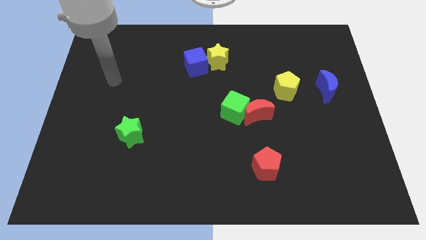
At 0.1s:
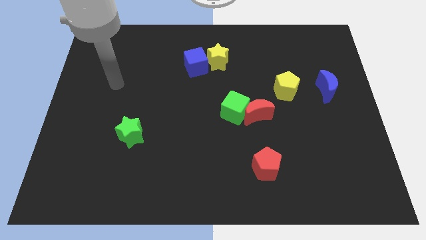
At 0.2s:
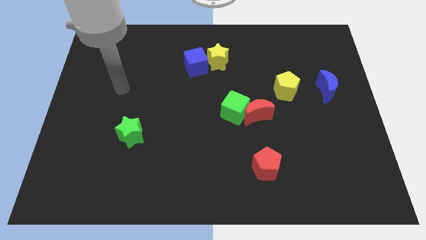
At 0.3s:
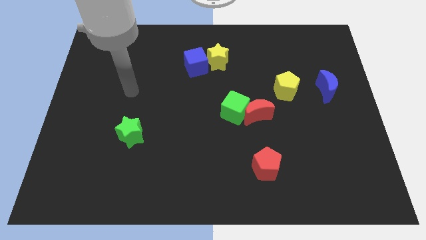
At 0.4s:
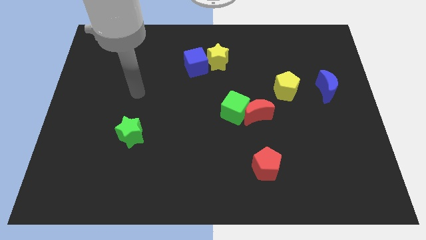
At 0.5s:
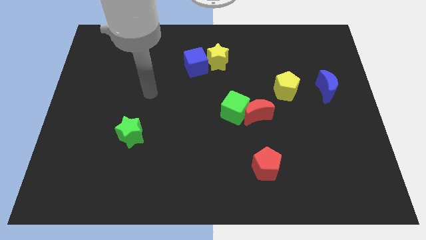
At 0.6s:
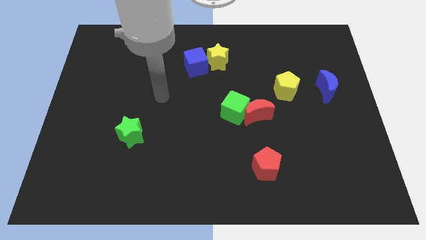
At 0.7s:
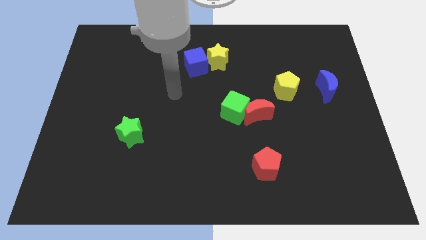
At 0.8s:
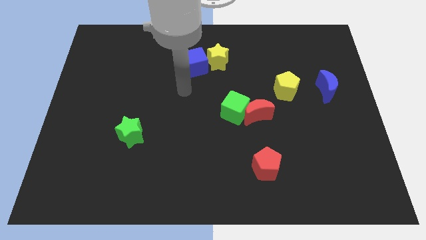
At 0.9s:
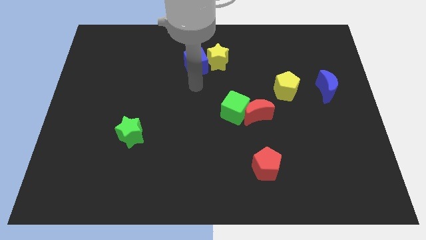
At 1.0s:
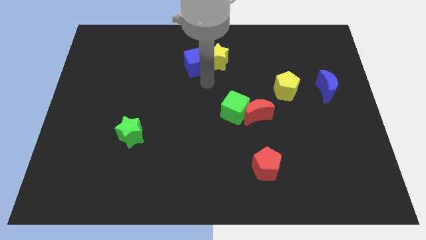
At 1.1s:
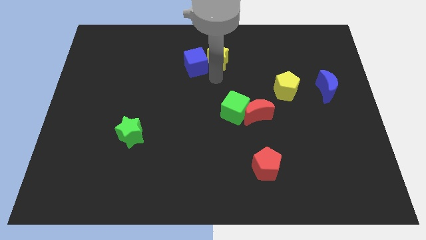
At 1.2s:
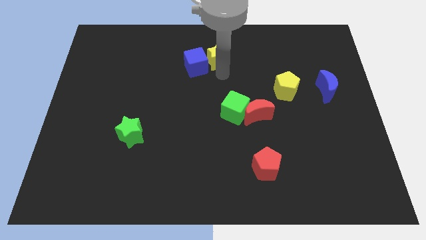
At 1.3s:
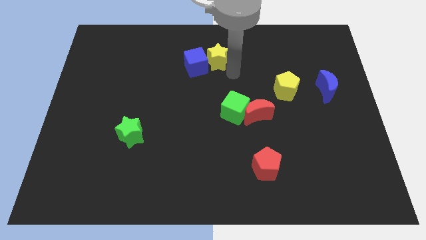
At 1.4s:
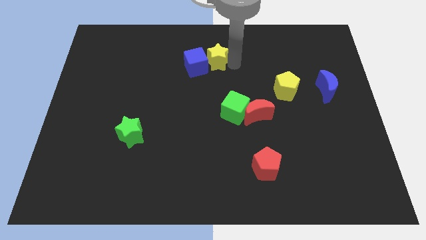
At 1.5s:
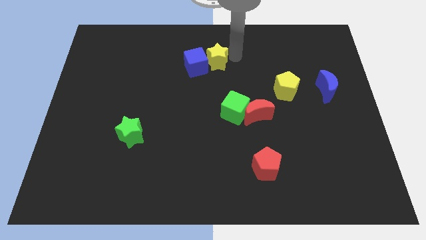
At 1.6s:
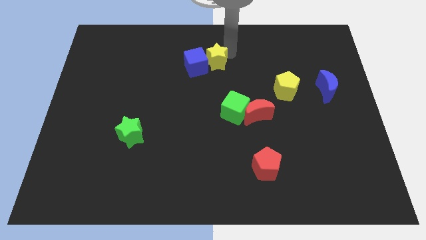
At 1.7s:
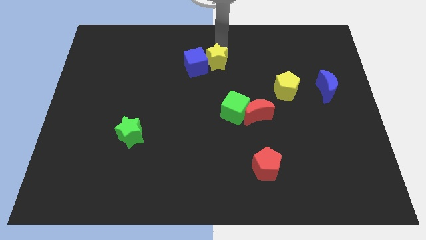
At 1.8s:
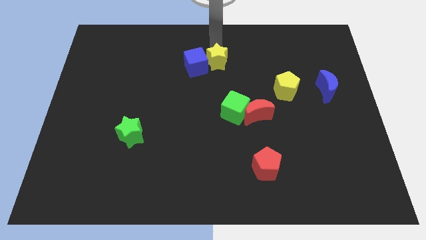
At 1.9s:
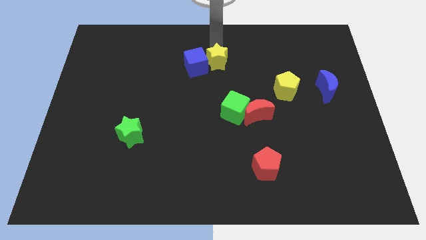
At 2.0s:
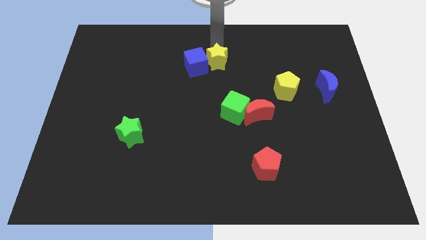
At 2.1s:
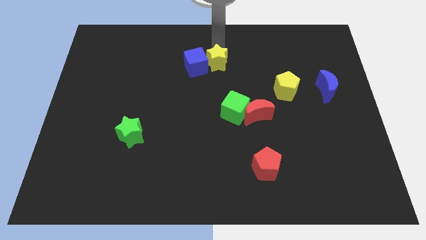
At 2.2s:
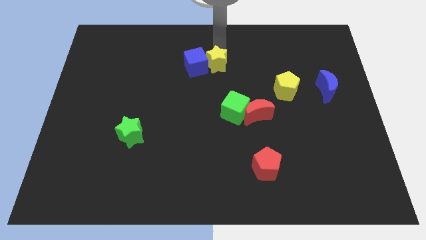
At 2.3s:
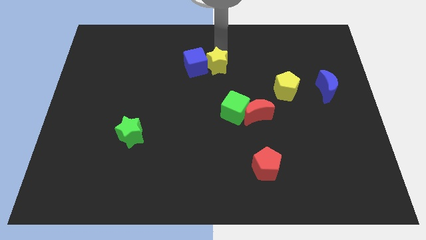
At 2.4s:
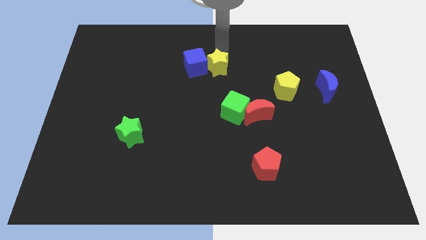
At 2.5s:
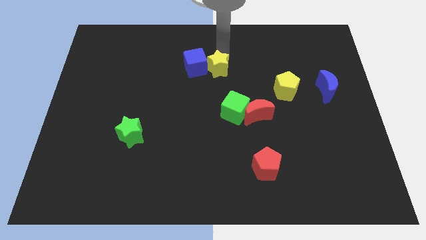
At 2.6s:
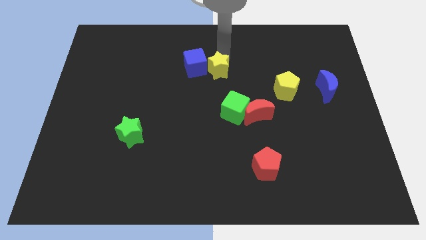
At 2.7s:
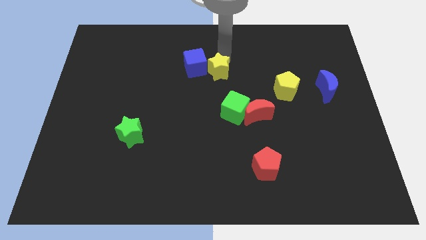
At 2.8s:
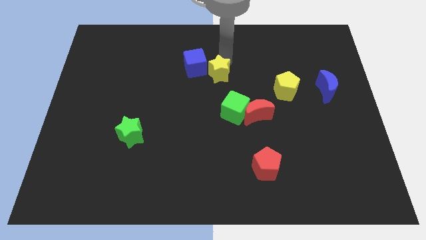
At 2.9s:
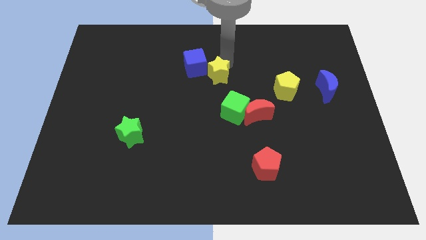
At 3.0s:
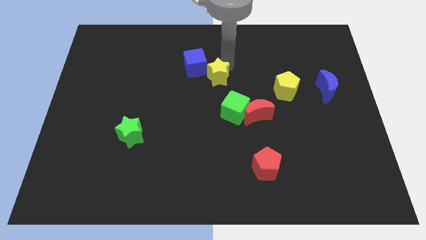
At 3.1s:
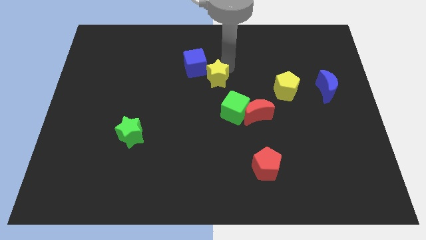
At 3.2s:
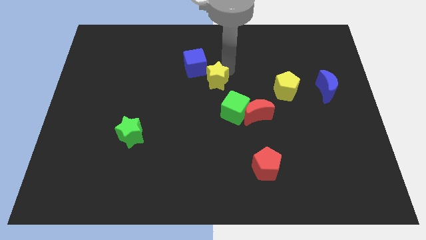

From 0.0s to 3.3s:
slide the yellow star down somewhat

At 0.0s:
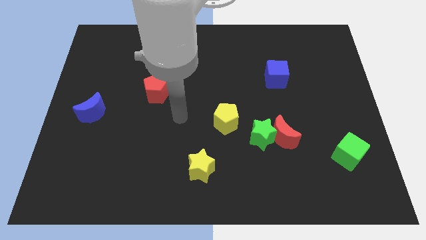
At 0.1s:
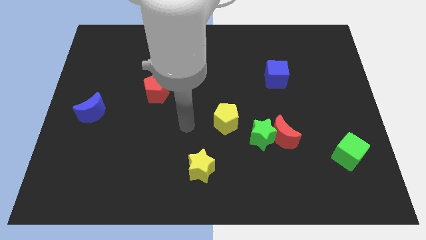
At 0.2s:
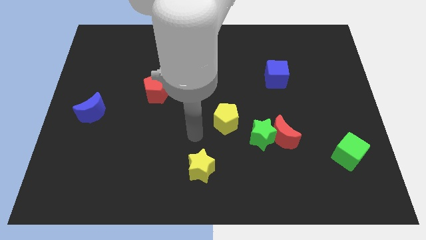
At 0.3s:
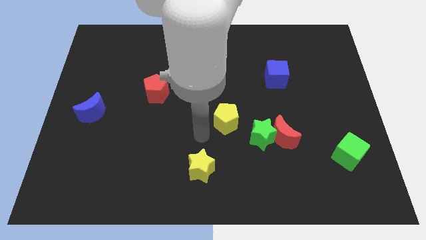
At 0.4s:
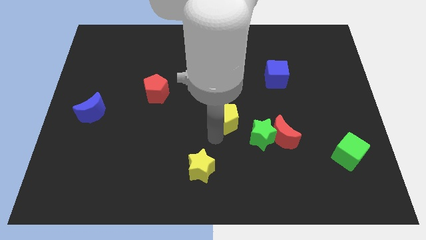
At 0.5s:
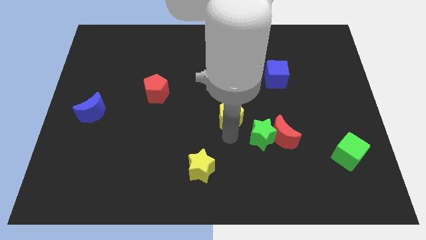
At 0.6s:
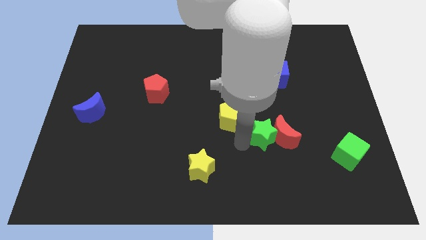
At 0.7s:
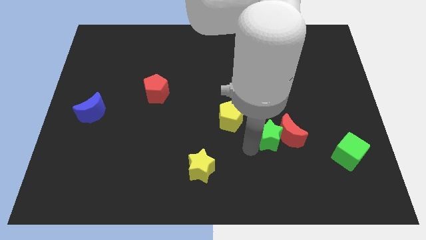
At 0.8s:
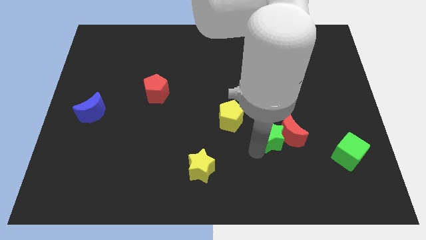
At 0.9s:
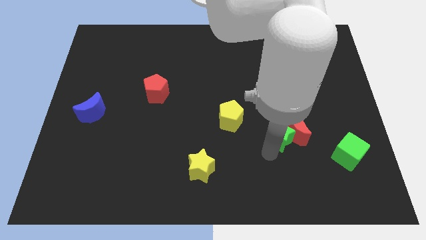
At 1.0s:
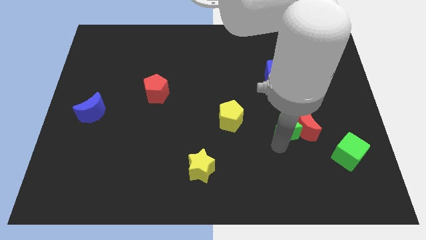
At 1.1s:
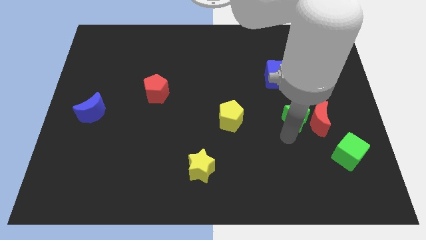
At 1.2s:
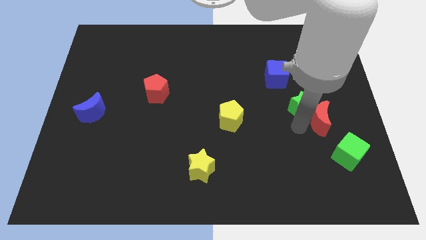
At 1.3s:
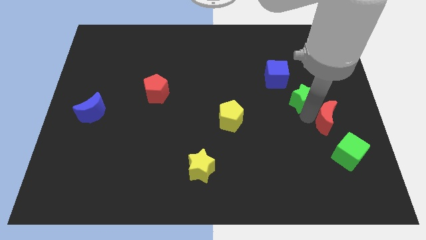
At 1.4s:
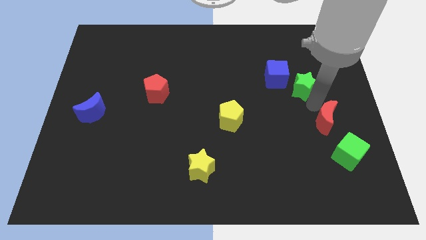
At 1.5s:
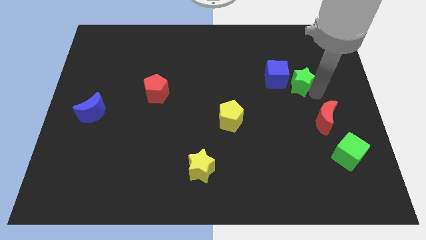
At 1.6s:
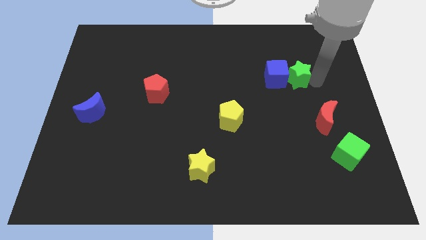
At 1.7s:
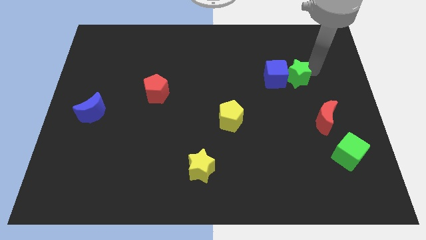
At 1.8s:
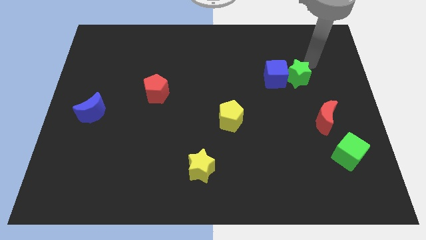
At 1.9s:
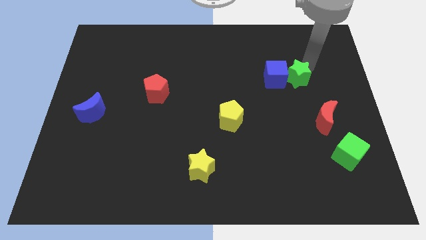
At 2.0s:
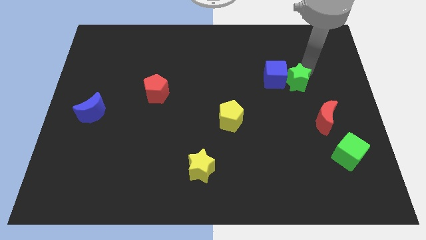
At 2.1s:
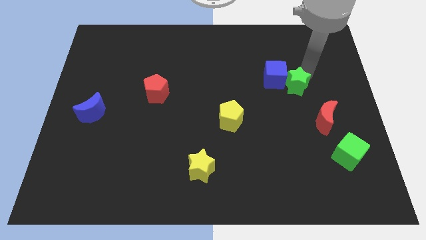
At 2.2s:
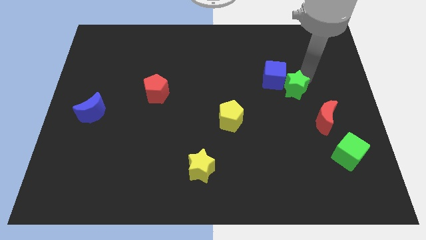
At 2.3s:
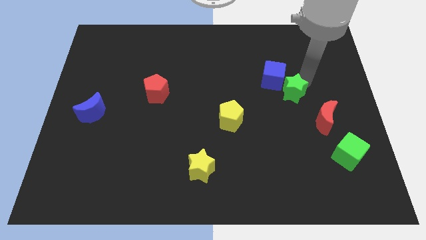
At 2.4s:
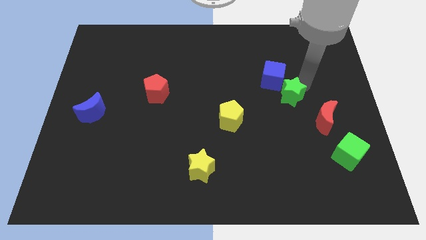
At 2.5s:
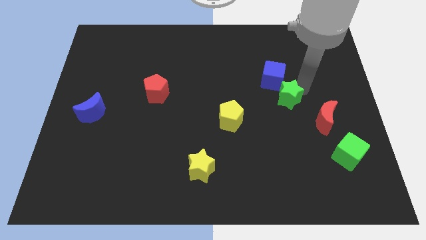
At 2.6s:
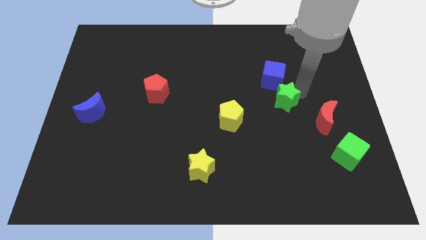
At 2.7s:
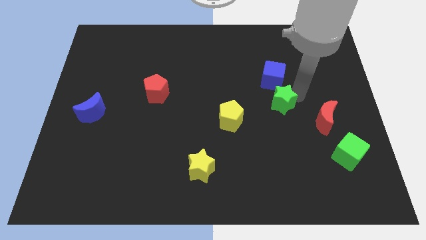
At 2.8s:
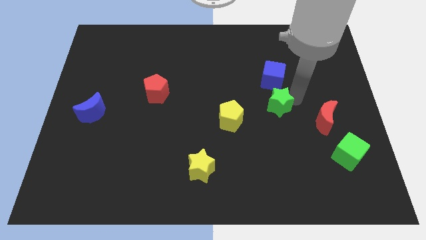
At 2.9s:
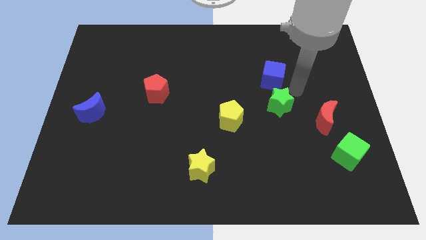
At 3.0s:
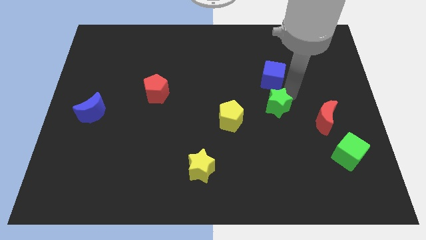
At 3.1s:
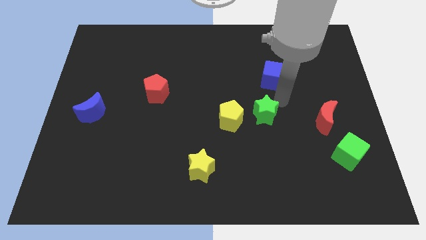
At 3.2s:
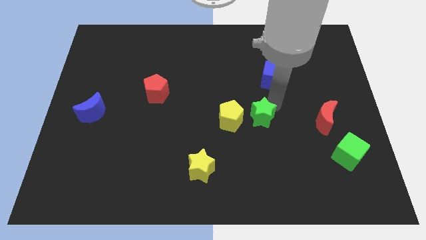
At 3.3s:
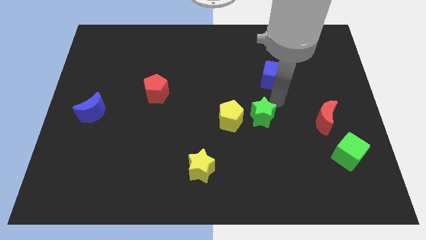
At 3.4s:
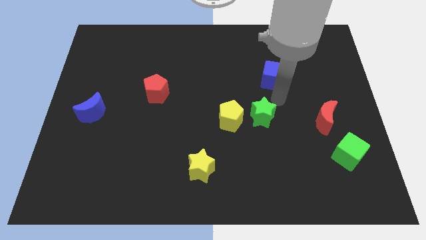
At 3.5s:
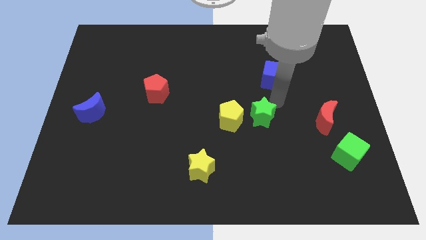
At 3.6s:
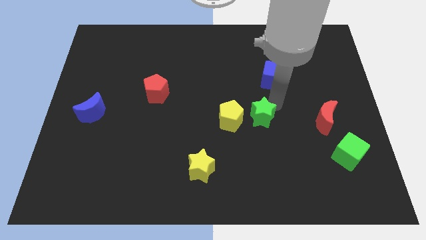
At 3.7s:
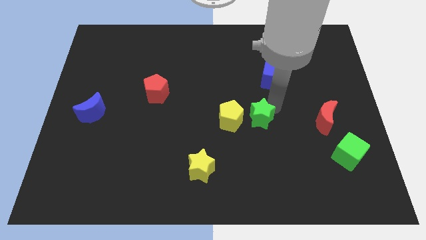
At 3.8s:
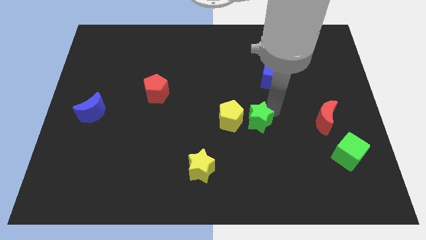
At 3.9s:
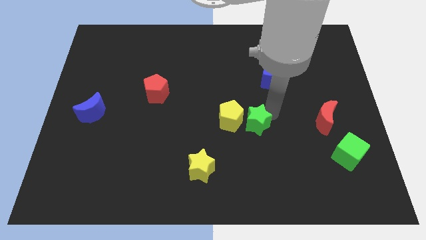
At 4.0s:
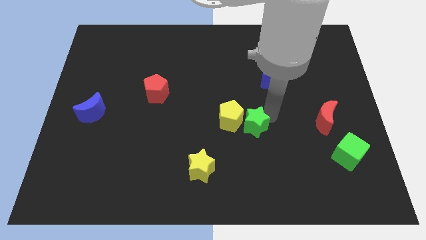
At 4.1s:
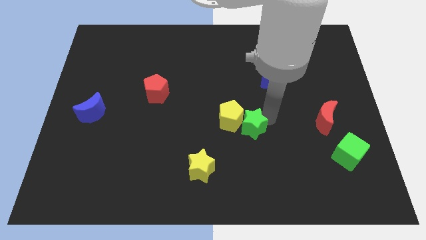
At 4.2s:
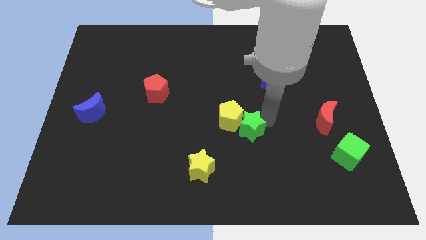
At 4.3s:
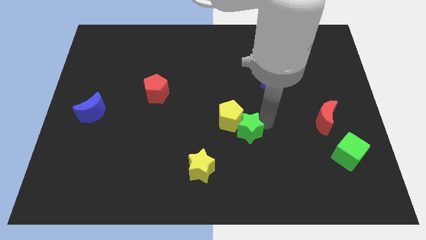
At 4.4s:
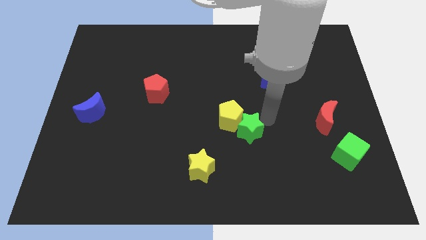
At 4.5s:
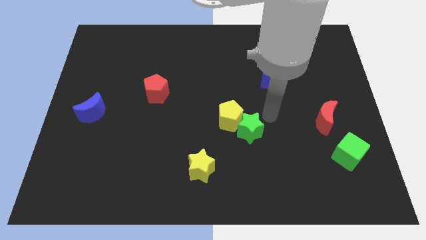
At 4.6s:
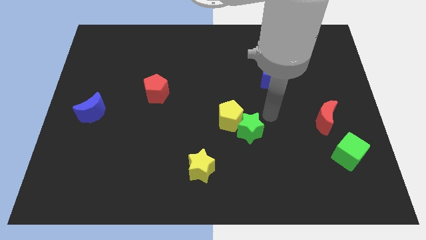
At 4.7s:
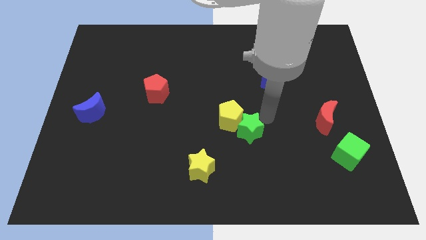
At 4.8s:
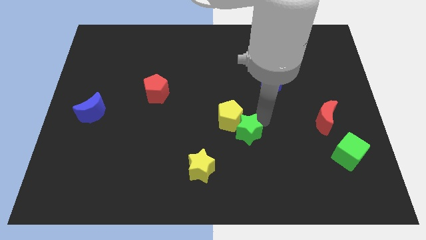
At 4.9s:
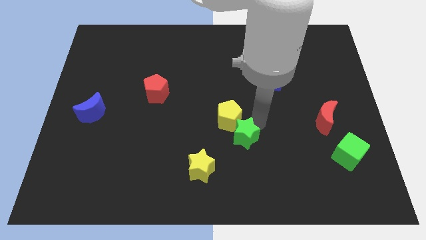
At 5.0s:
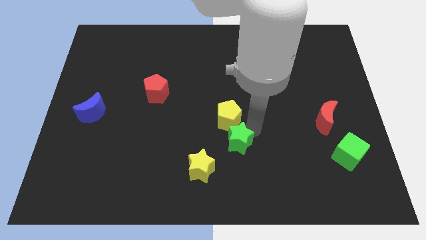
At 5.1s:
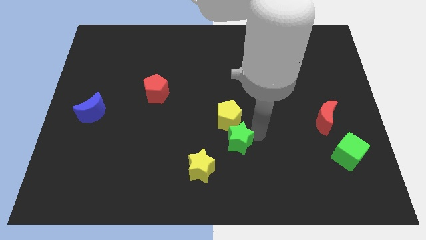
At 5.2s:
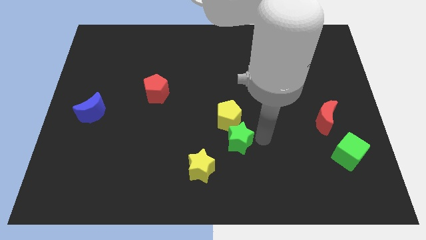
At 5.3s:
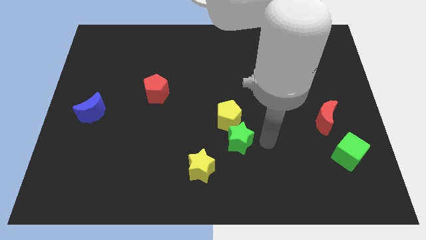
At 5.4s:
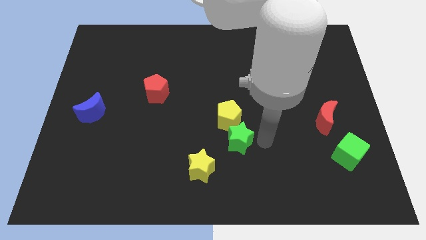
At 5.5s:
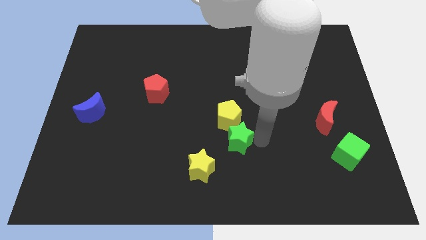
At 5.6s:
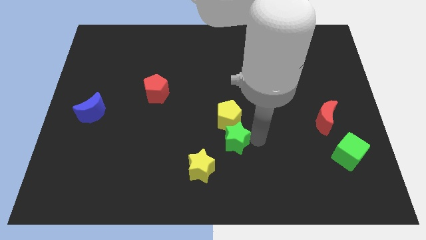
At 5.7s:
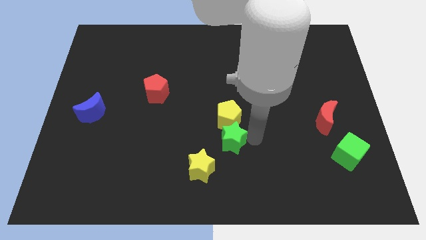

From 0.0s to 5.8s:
slightly slide the green star left
